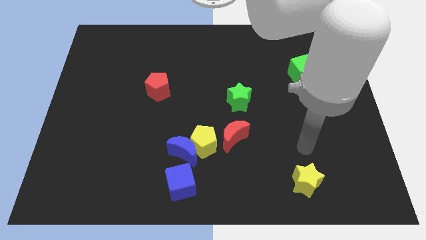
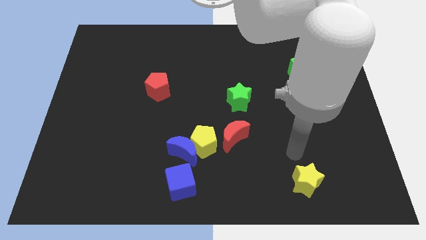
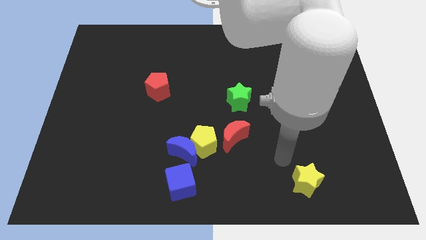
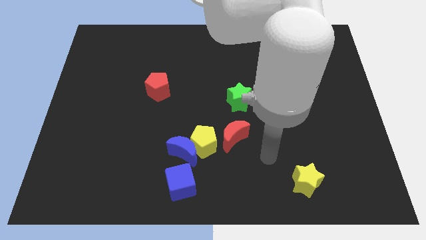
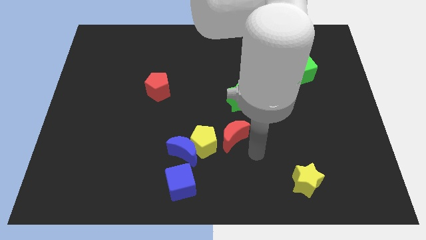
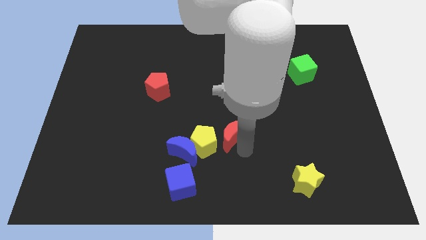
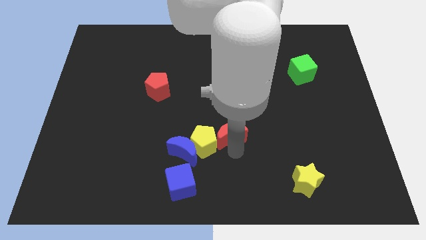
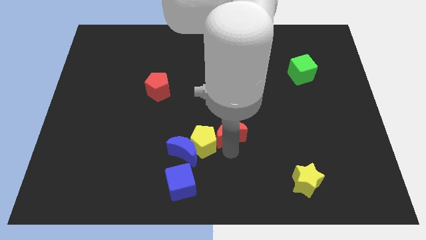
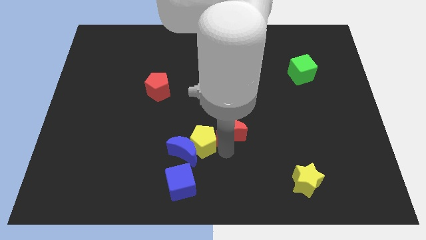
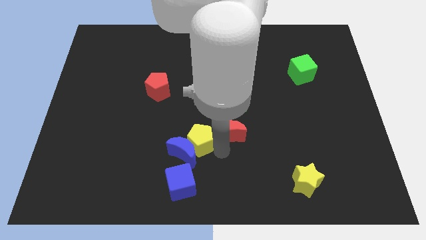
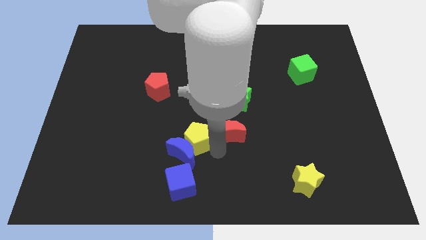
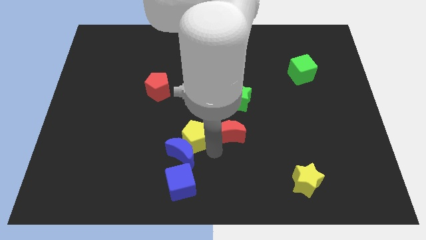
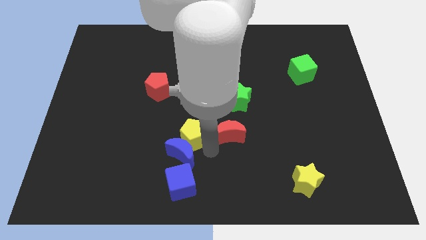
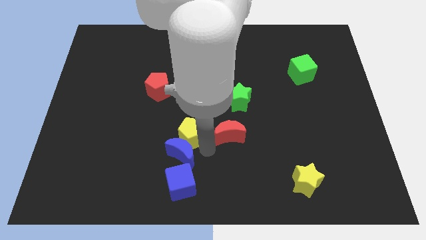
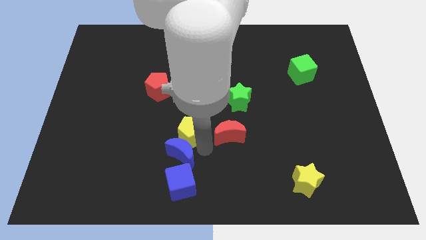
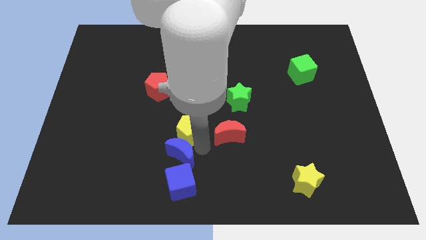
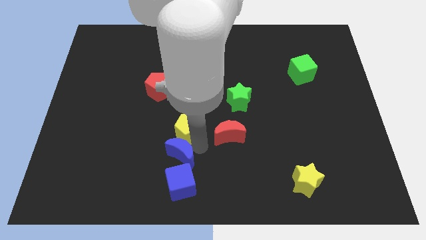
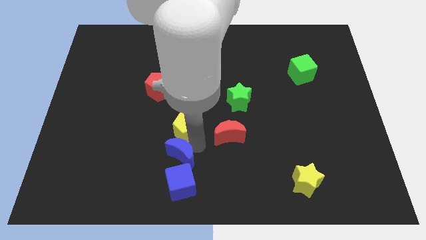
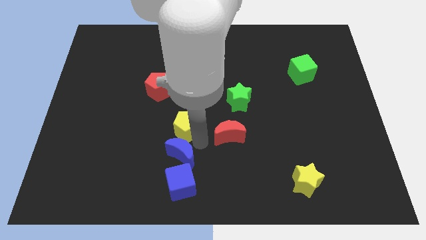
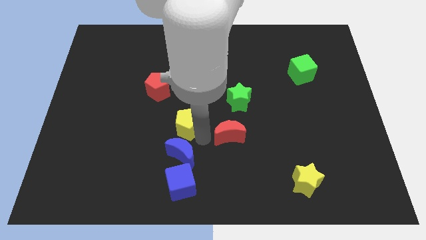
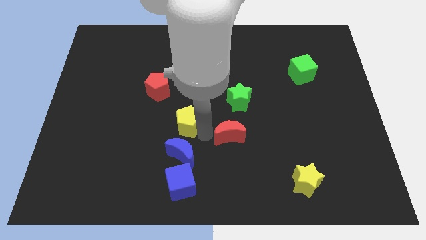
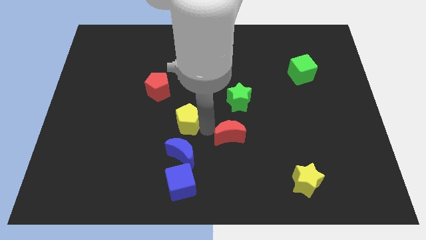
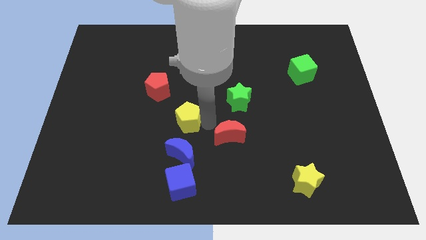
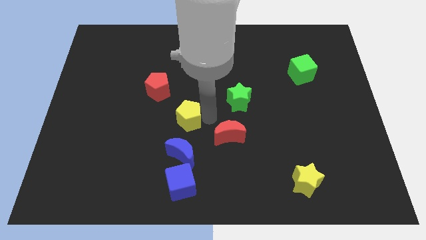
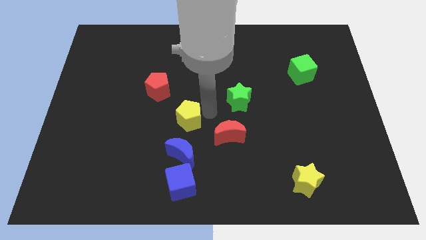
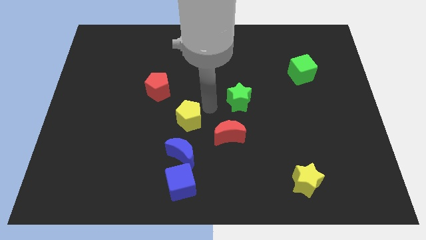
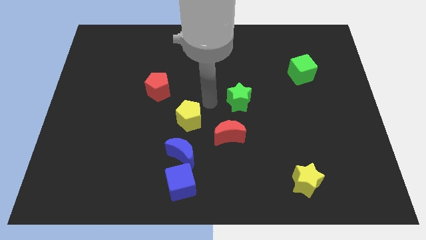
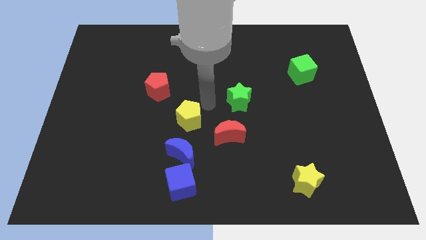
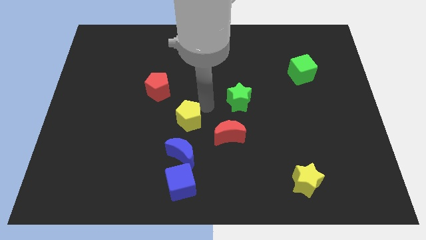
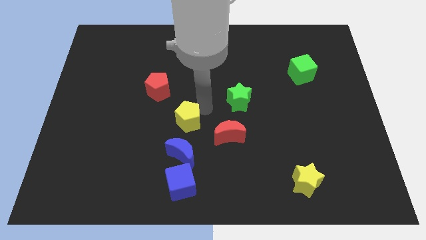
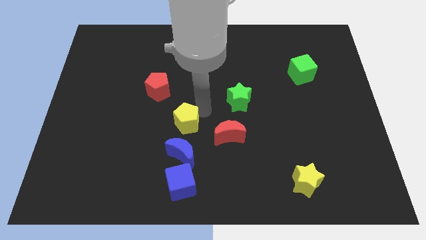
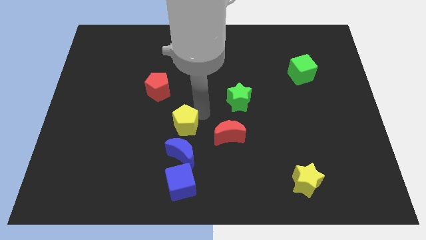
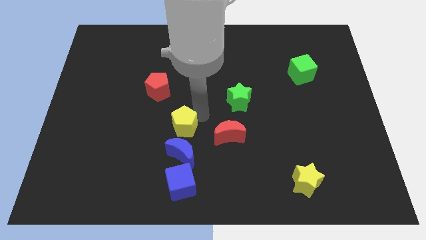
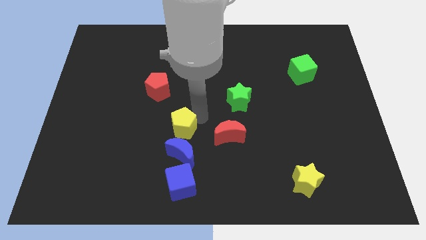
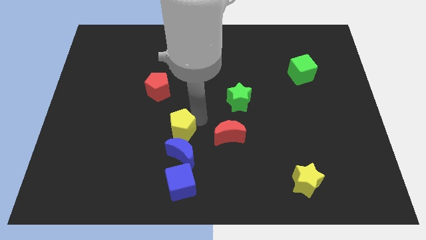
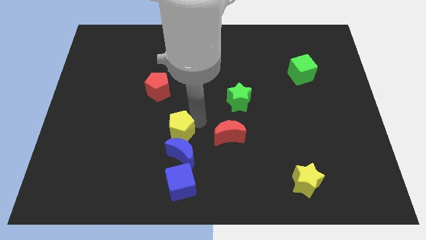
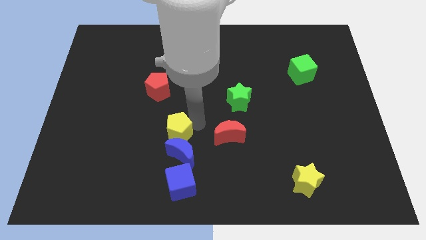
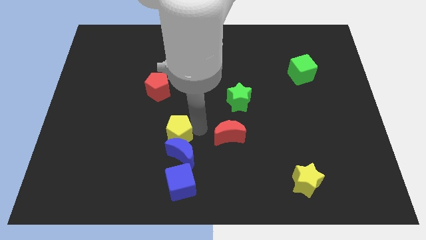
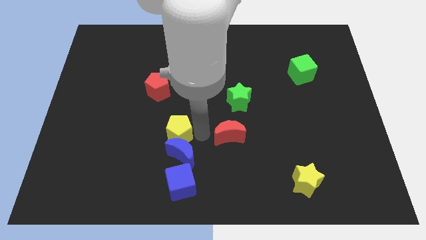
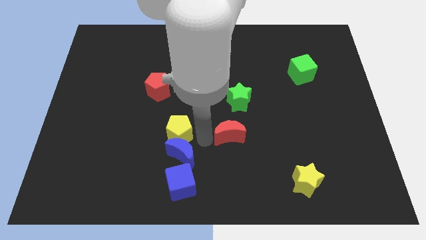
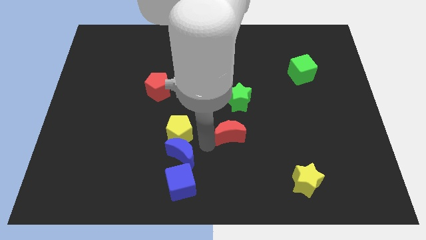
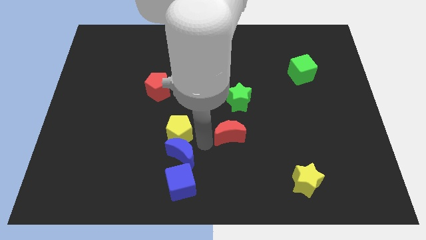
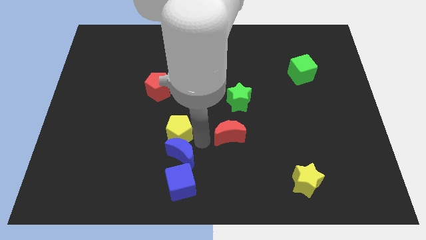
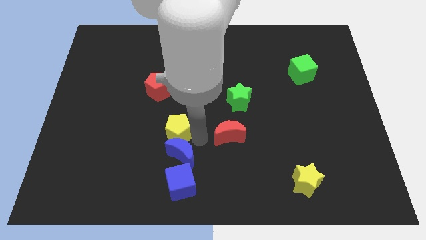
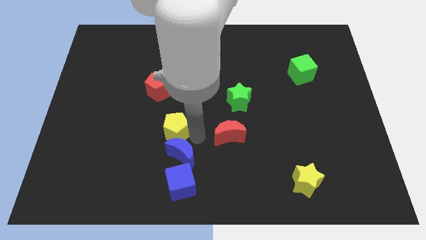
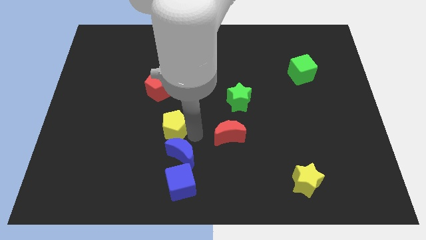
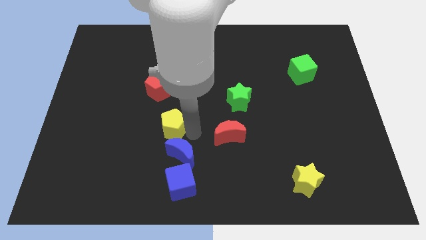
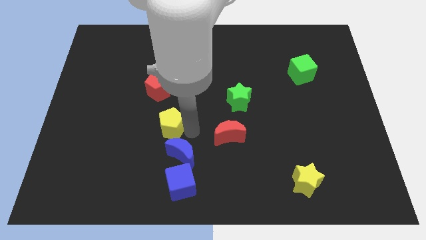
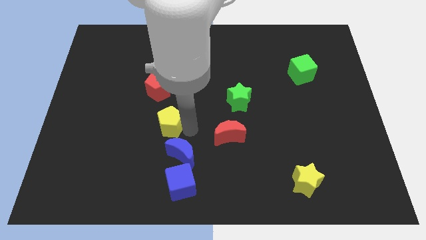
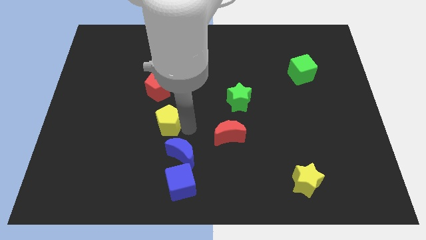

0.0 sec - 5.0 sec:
pull the yellow pentagon apart from the blue moon and red moon

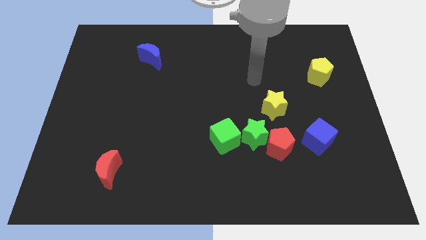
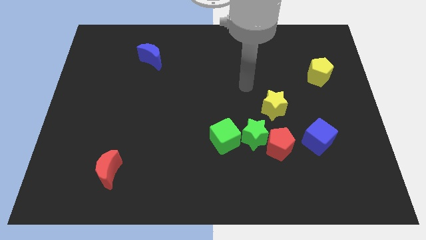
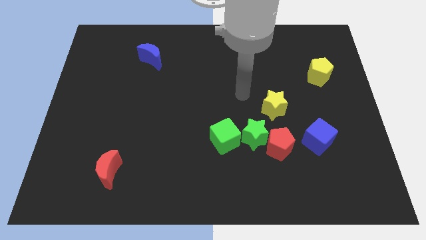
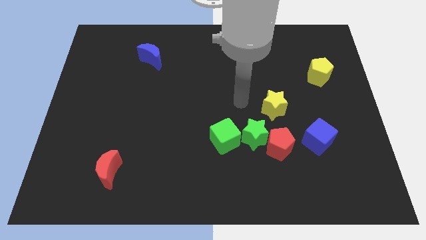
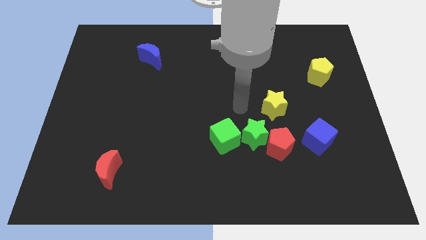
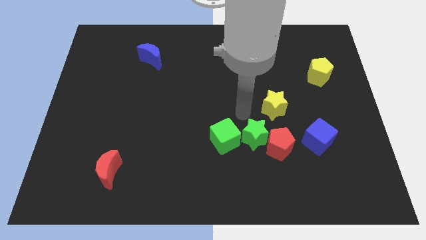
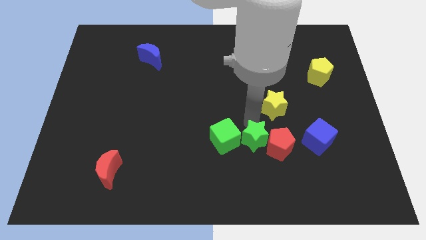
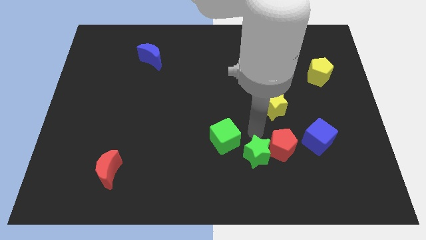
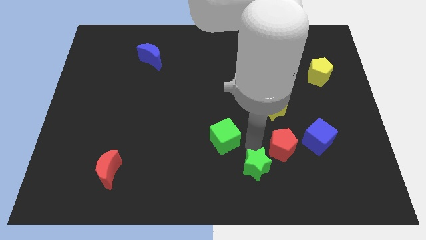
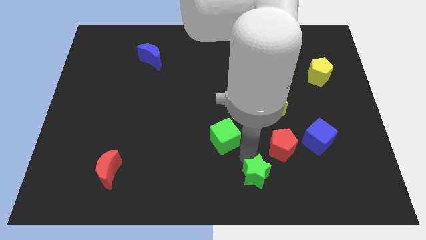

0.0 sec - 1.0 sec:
separate the green cube from the green star

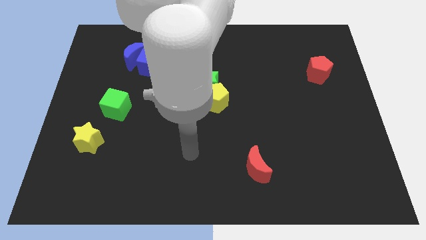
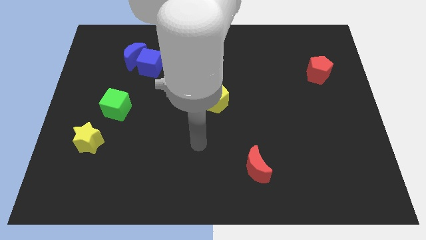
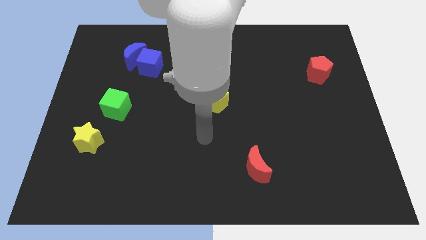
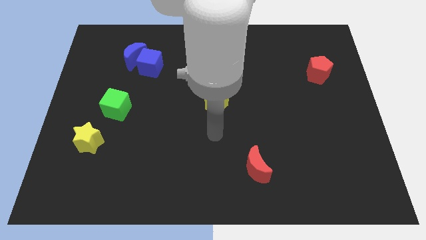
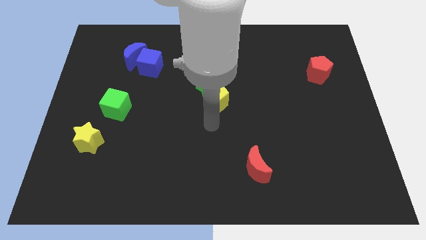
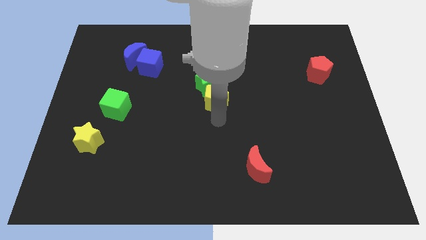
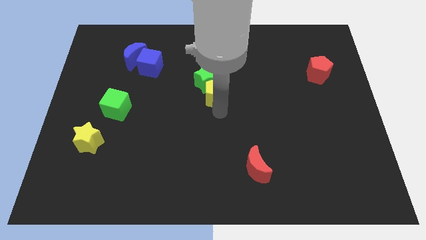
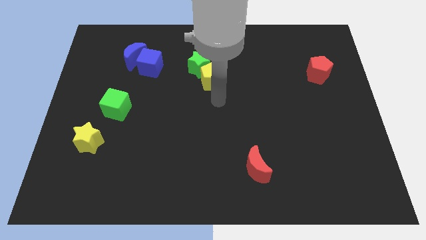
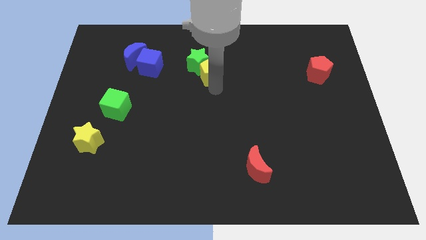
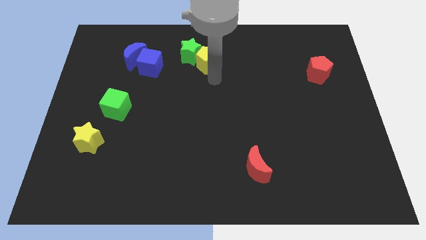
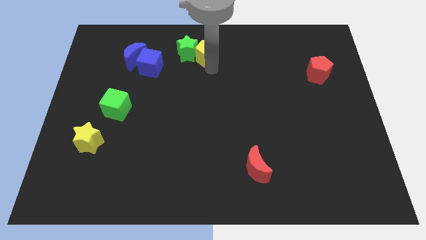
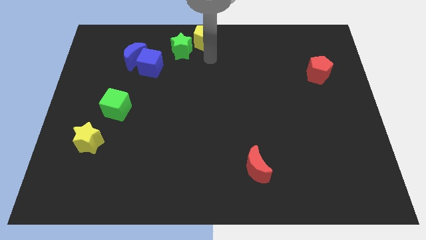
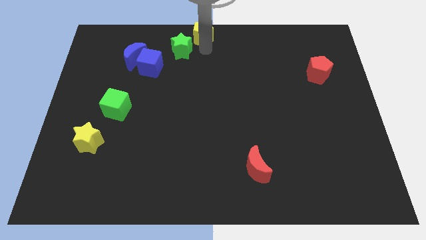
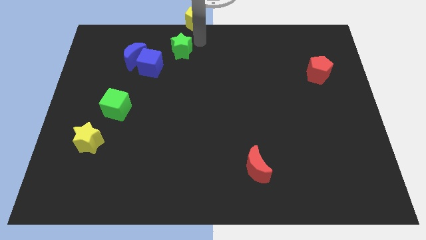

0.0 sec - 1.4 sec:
pull the green star apart from the yellow pentagon

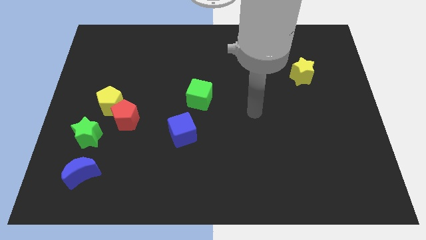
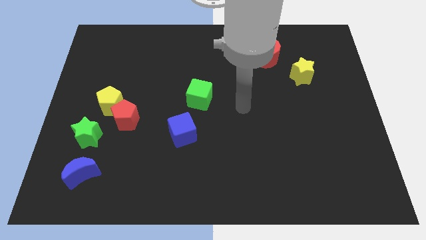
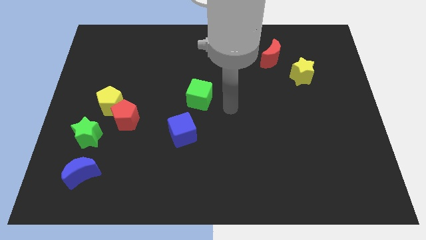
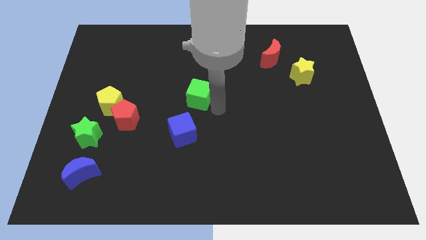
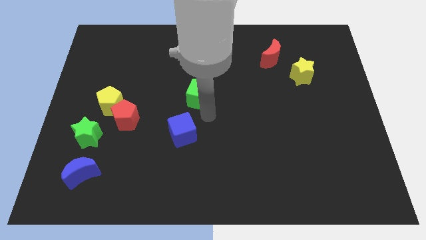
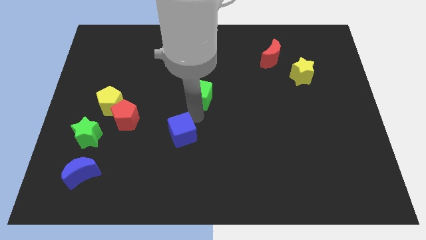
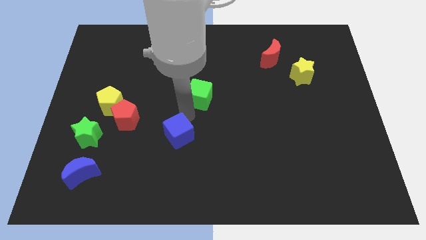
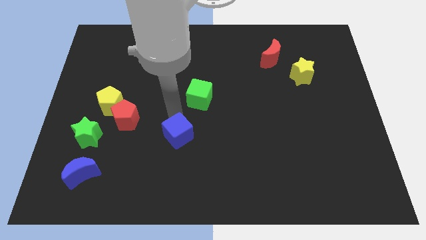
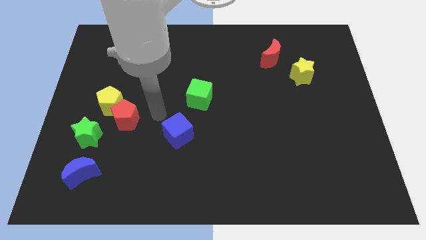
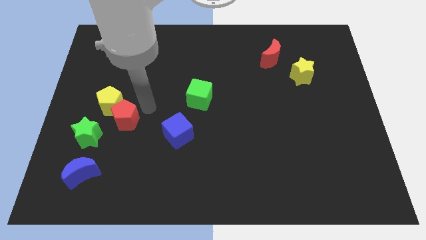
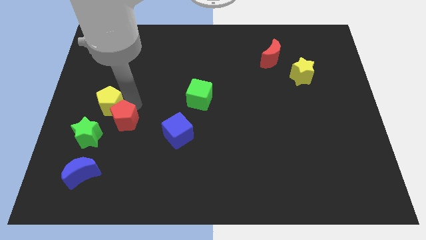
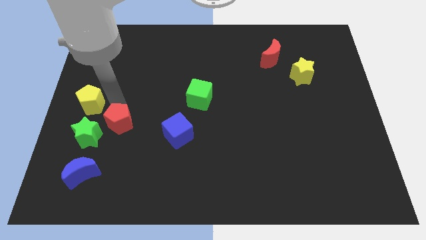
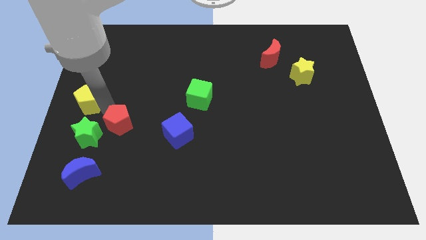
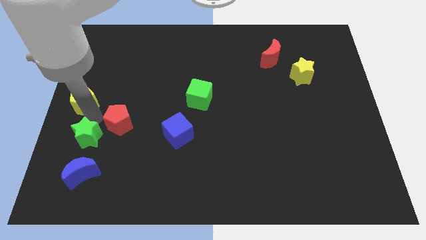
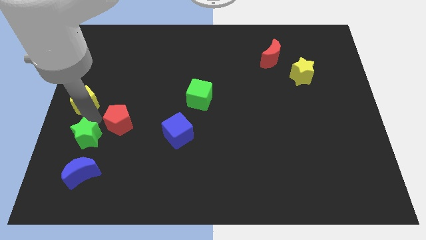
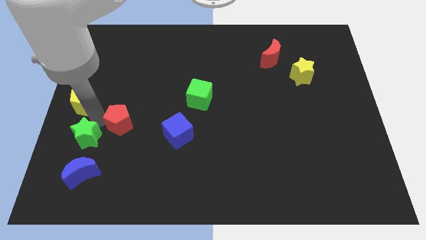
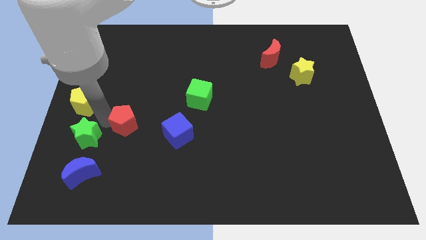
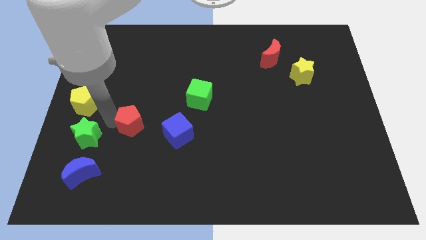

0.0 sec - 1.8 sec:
separate the red pentagon from the yellow pentagon and green star

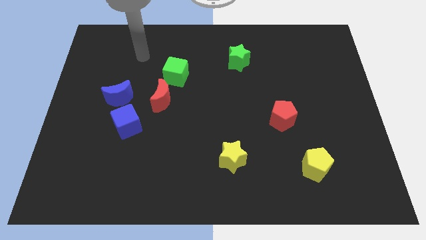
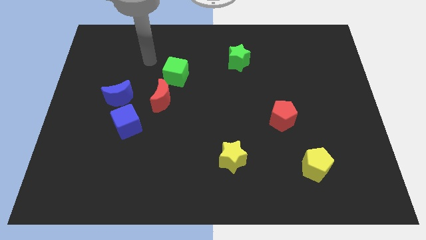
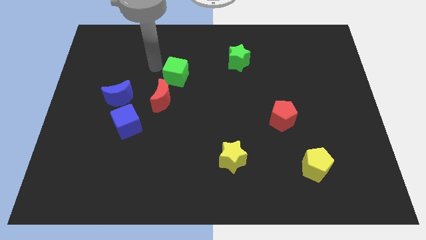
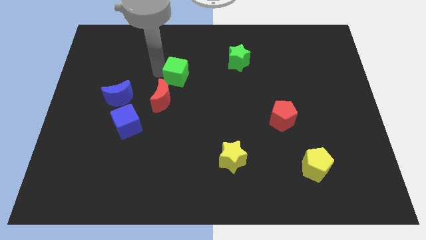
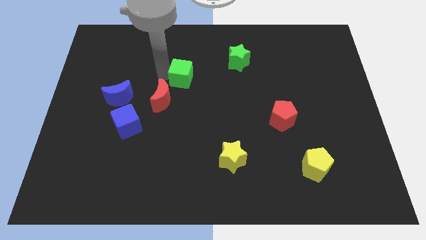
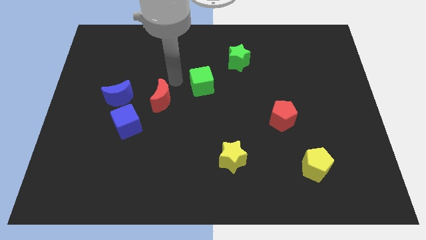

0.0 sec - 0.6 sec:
separate the red moon from the green cube
